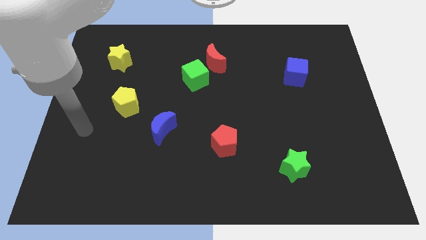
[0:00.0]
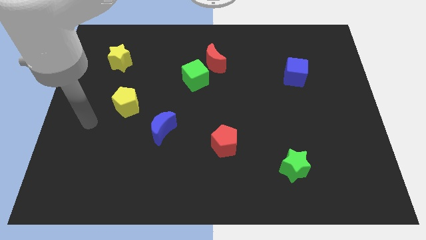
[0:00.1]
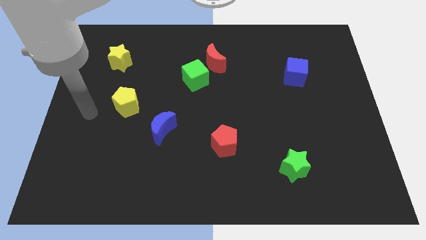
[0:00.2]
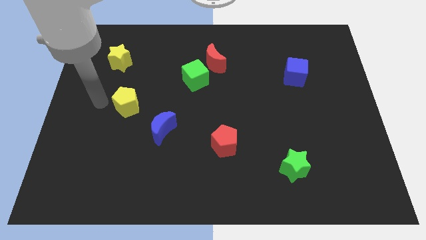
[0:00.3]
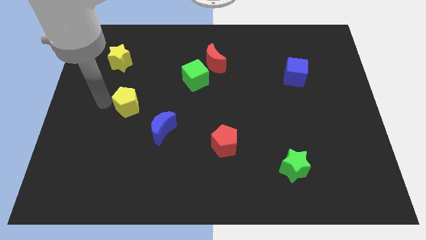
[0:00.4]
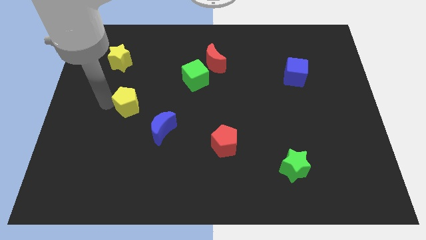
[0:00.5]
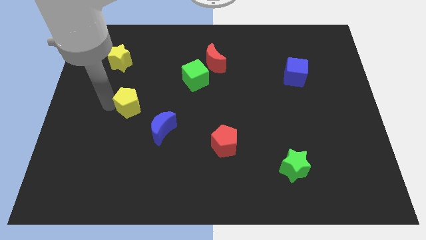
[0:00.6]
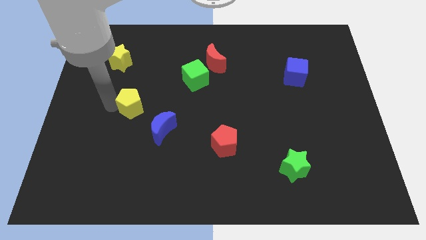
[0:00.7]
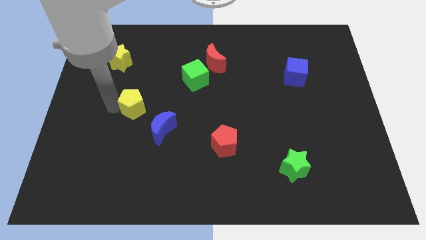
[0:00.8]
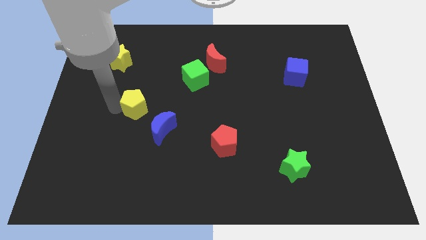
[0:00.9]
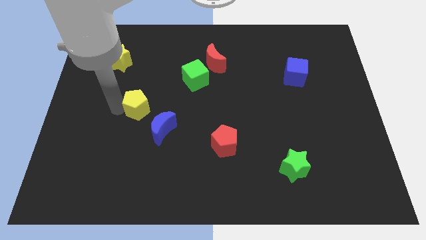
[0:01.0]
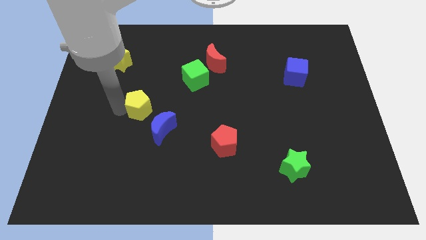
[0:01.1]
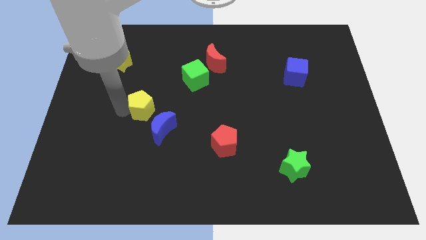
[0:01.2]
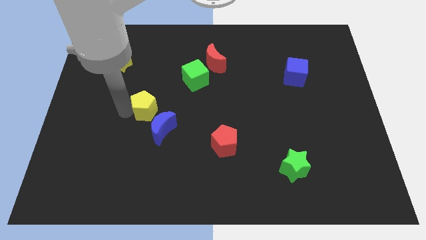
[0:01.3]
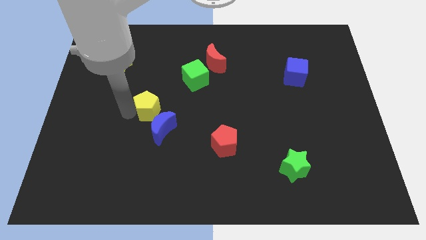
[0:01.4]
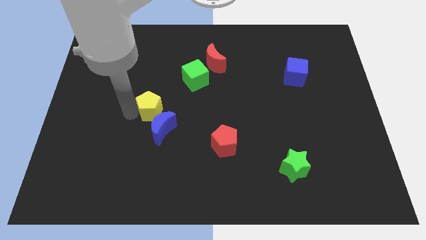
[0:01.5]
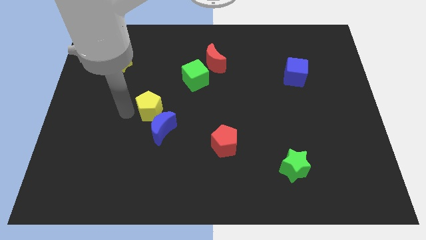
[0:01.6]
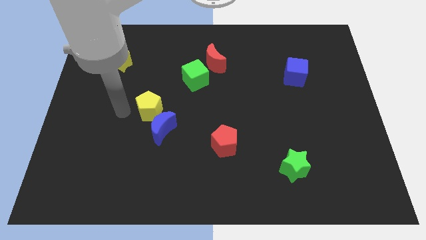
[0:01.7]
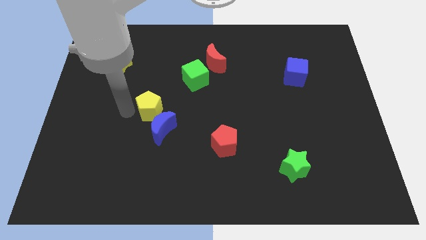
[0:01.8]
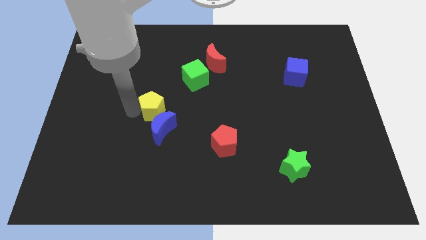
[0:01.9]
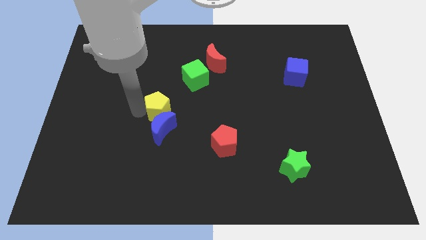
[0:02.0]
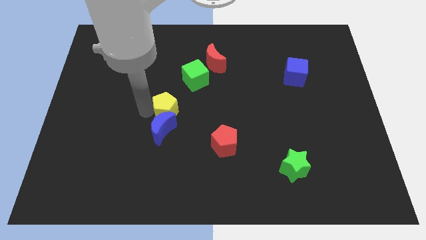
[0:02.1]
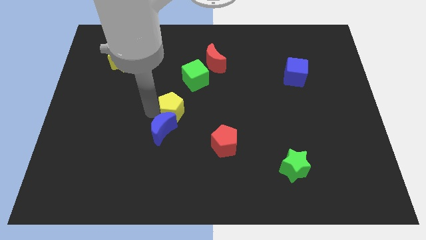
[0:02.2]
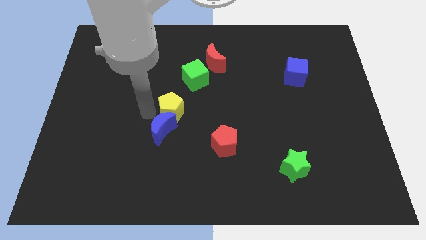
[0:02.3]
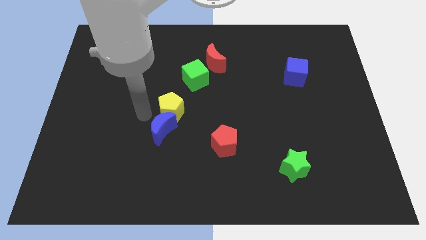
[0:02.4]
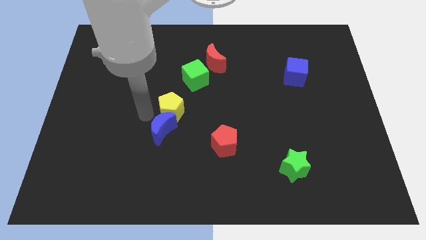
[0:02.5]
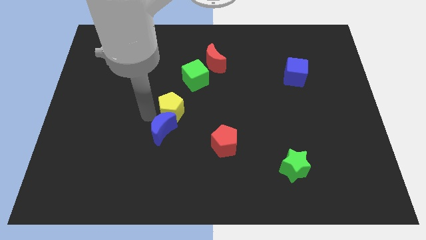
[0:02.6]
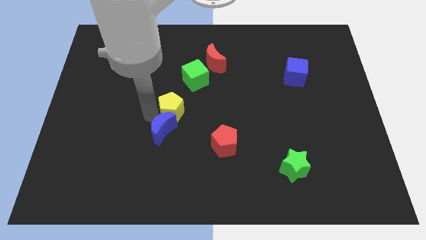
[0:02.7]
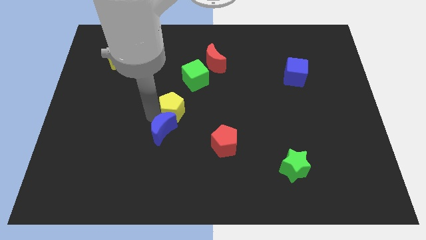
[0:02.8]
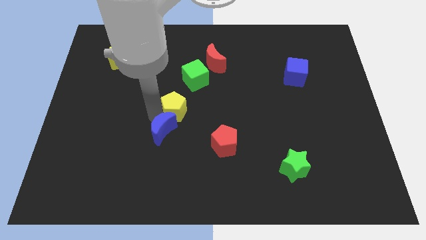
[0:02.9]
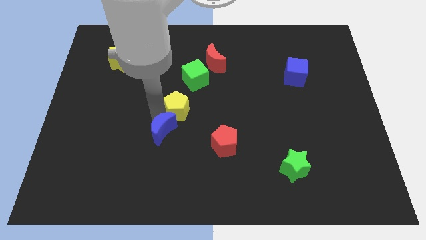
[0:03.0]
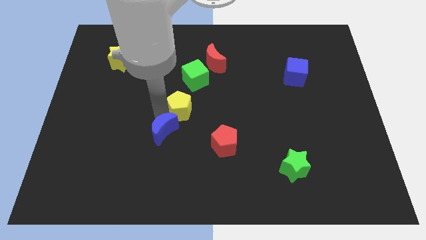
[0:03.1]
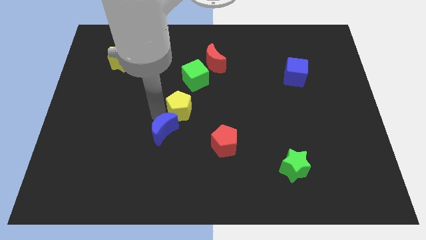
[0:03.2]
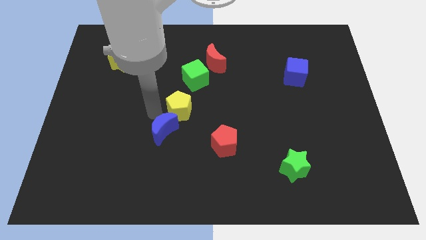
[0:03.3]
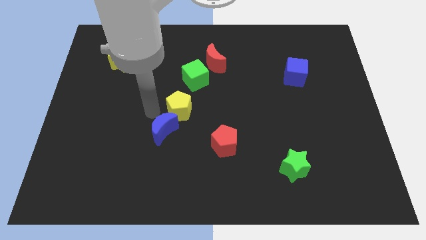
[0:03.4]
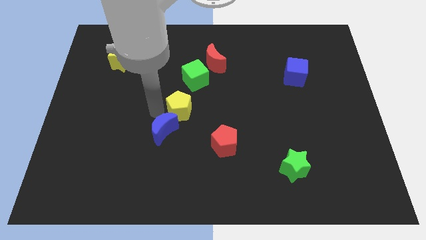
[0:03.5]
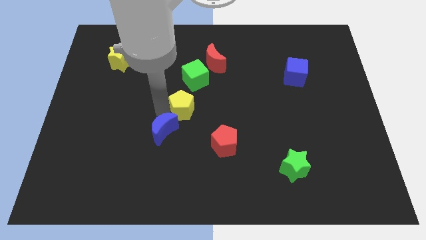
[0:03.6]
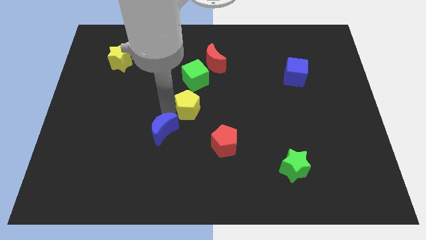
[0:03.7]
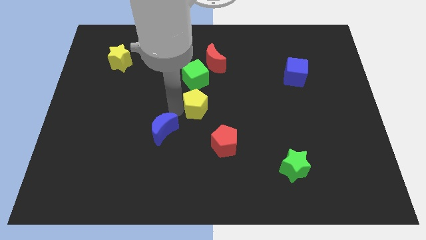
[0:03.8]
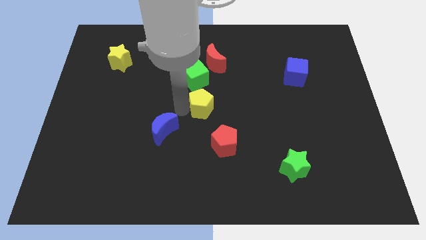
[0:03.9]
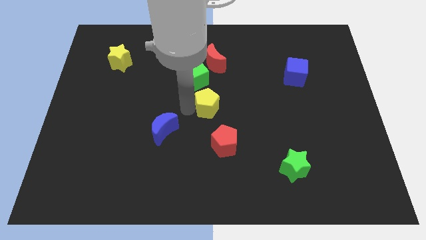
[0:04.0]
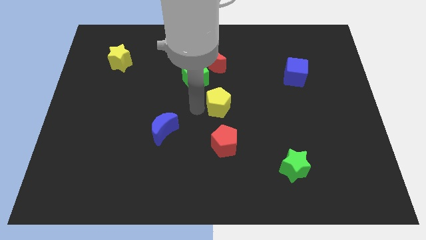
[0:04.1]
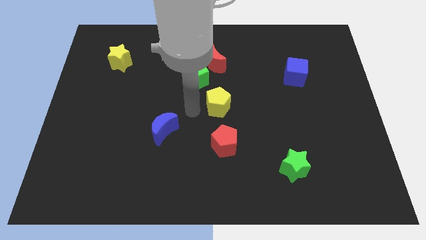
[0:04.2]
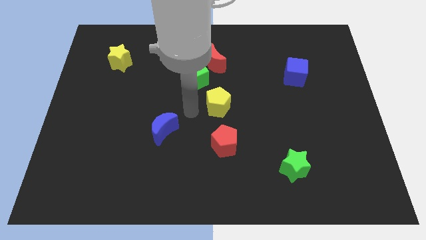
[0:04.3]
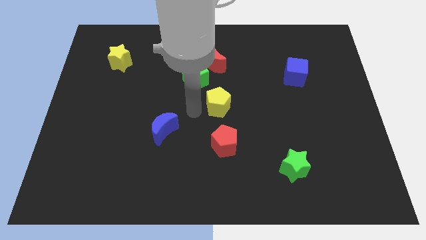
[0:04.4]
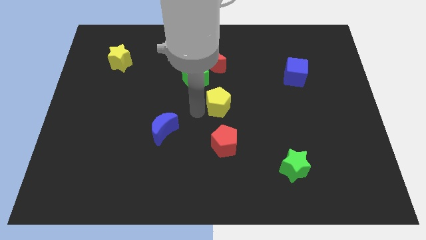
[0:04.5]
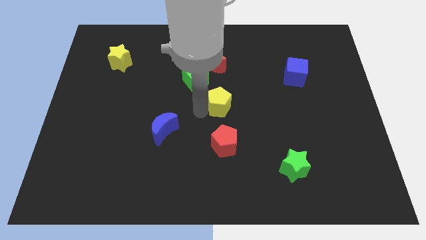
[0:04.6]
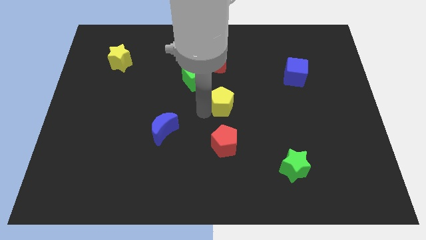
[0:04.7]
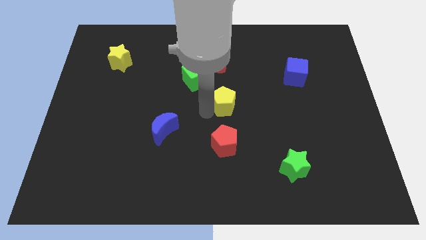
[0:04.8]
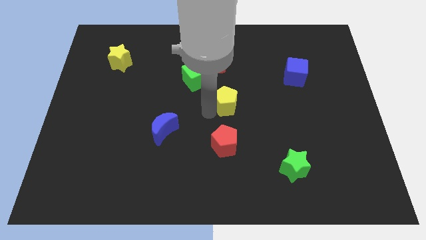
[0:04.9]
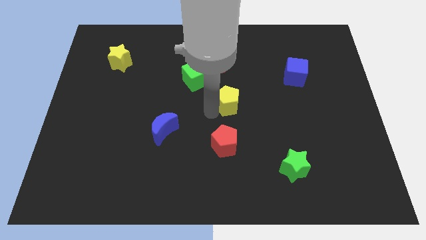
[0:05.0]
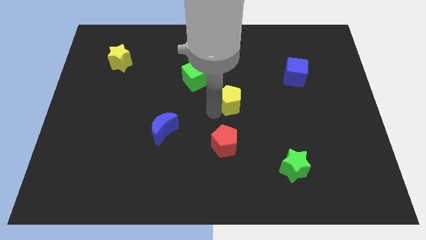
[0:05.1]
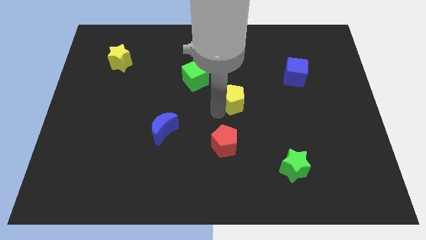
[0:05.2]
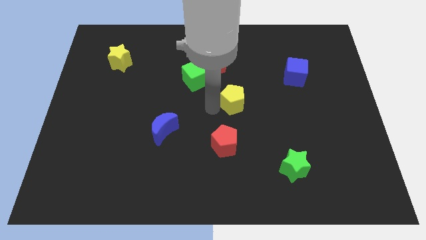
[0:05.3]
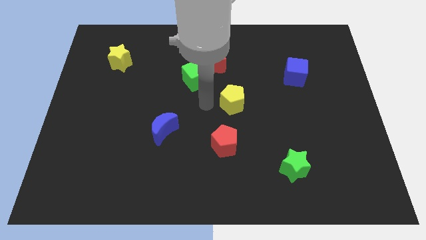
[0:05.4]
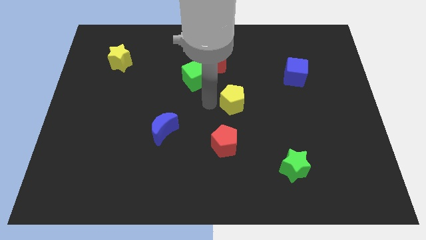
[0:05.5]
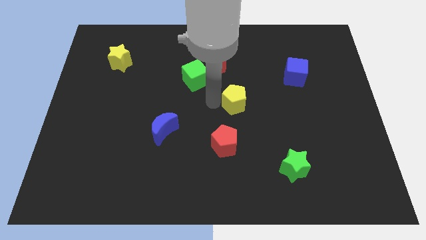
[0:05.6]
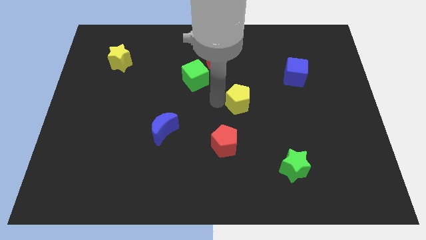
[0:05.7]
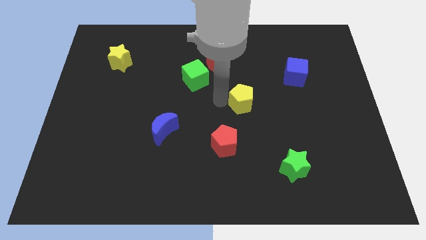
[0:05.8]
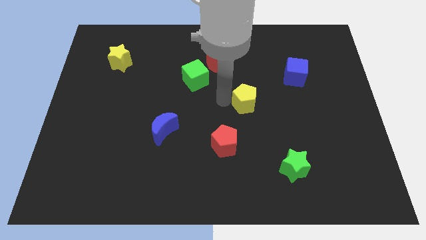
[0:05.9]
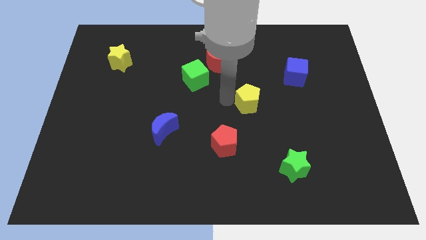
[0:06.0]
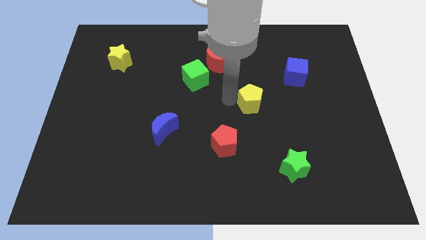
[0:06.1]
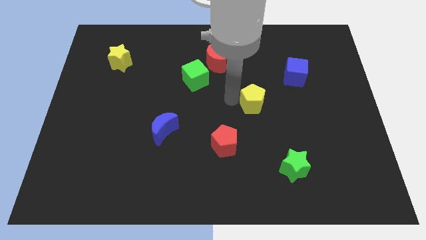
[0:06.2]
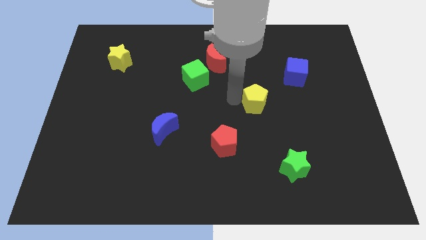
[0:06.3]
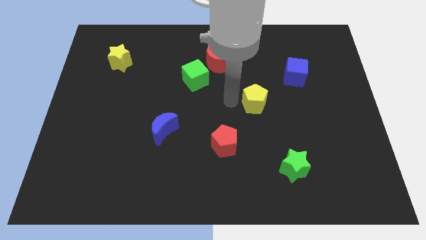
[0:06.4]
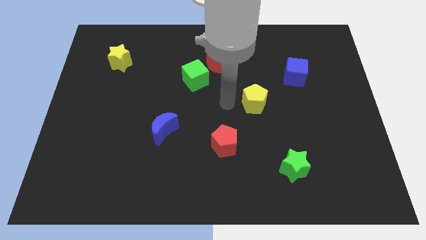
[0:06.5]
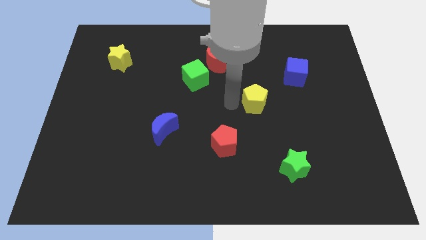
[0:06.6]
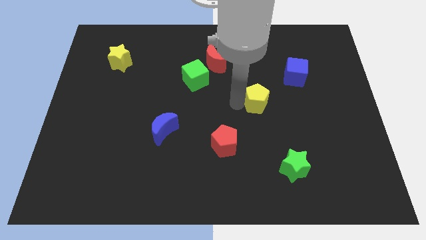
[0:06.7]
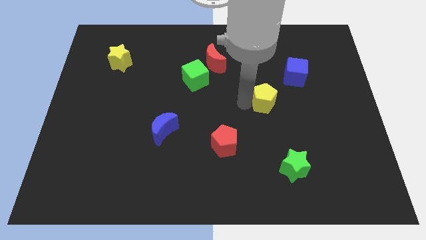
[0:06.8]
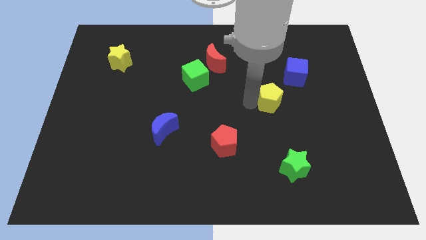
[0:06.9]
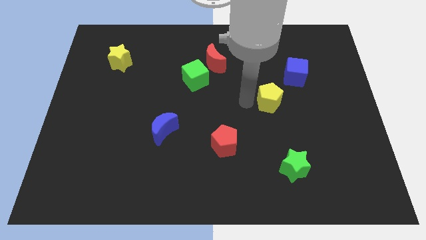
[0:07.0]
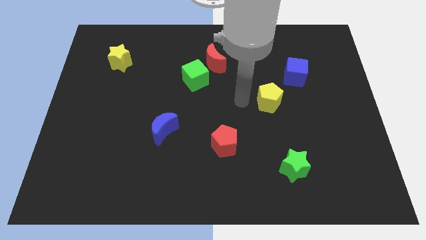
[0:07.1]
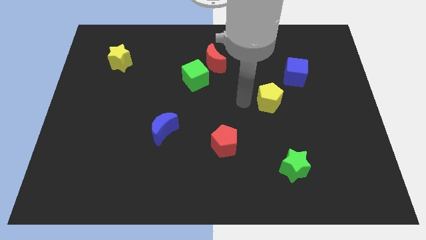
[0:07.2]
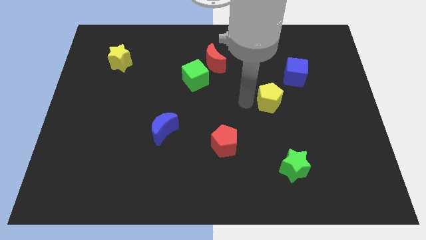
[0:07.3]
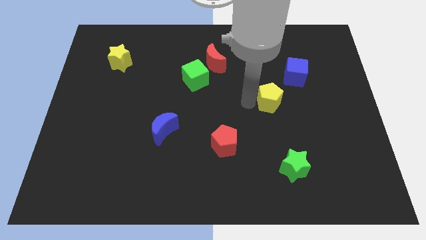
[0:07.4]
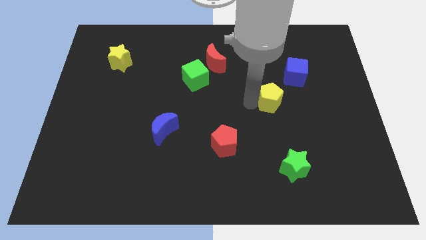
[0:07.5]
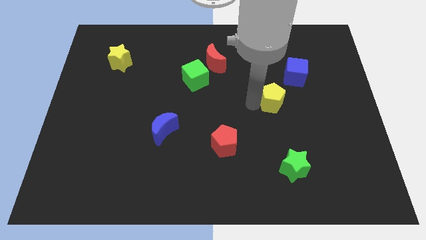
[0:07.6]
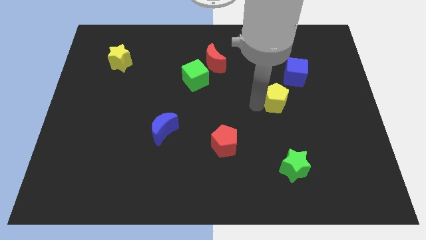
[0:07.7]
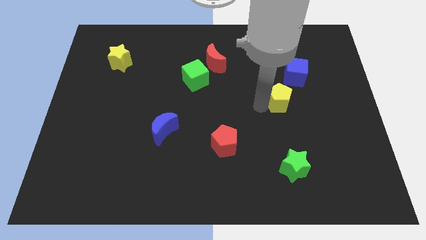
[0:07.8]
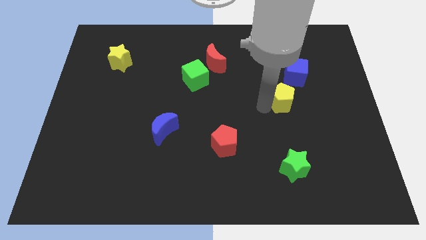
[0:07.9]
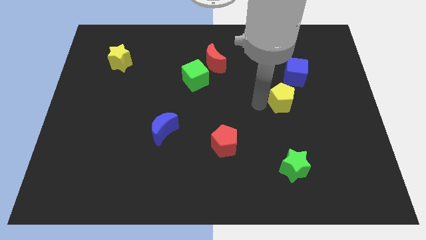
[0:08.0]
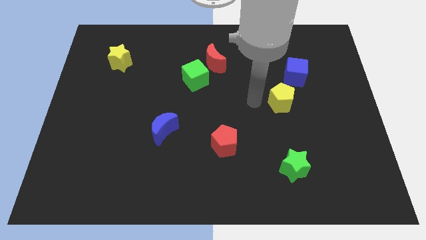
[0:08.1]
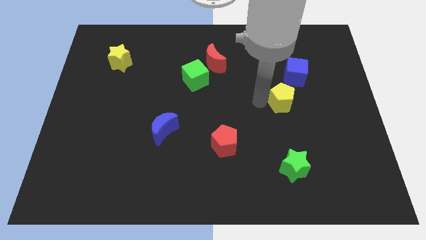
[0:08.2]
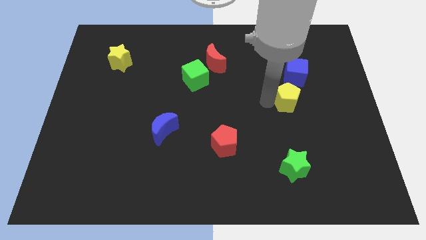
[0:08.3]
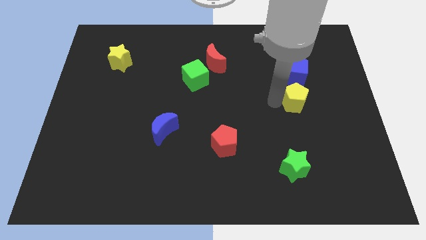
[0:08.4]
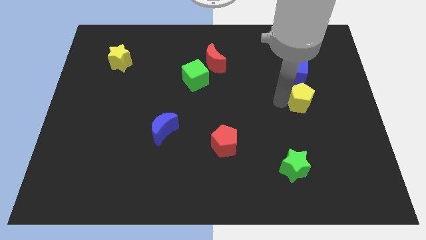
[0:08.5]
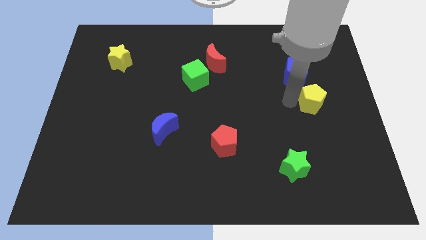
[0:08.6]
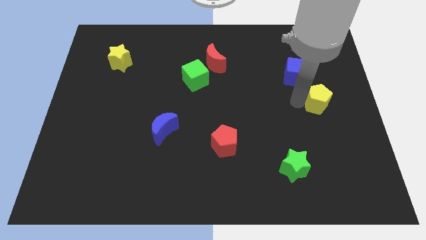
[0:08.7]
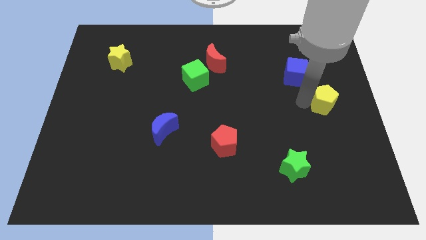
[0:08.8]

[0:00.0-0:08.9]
move the yellow pentagon to the right side
